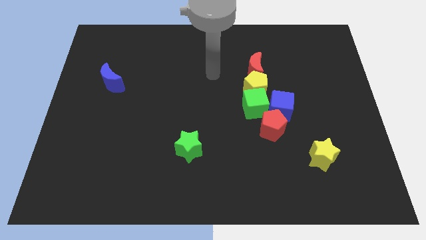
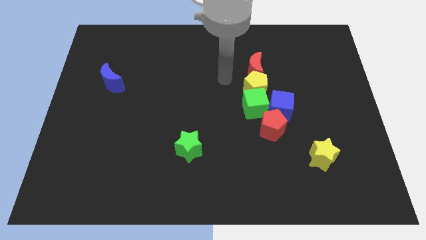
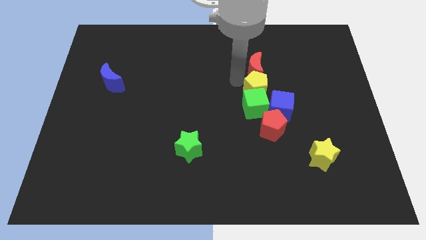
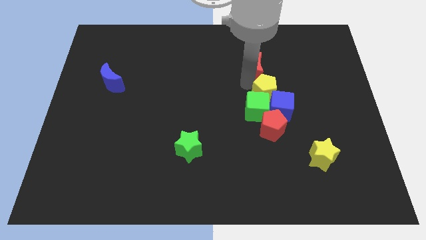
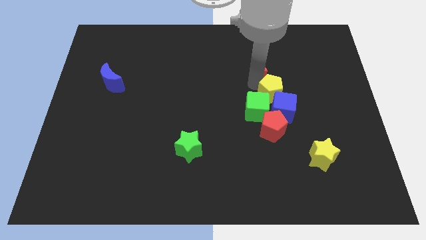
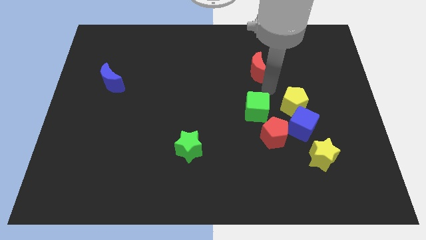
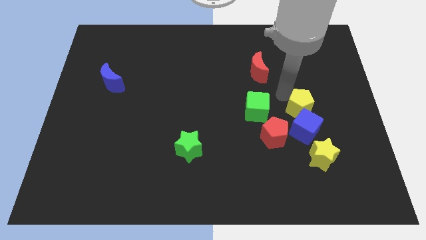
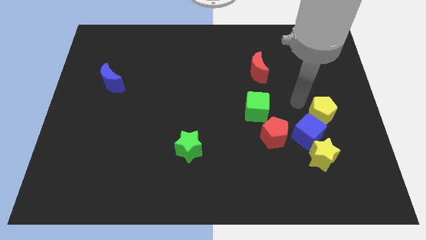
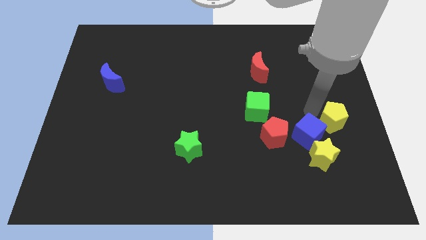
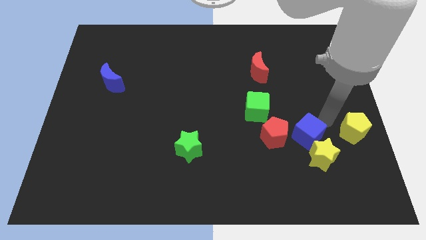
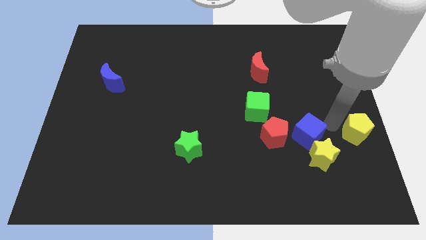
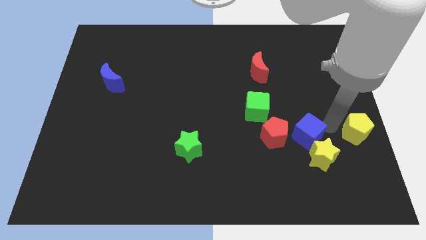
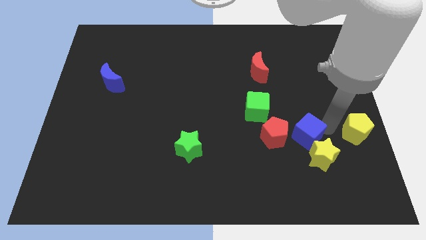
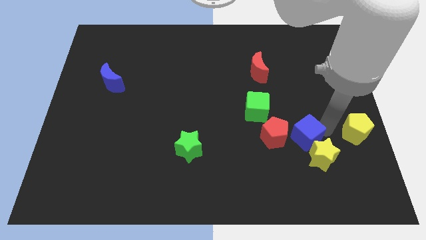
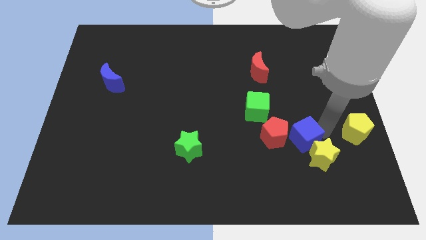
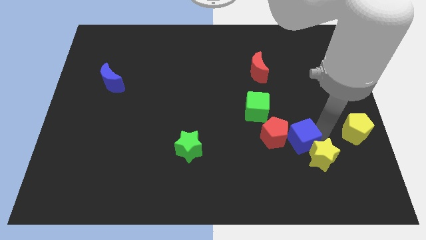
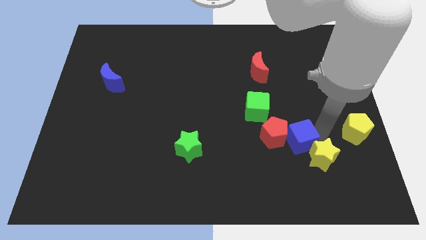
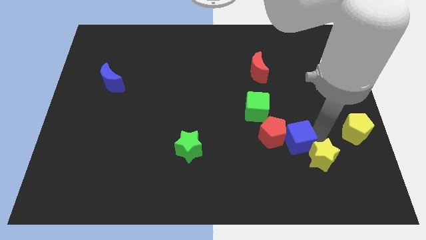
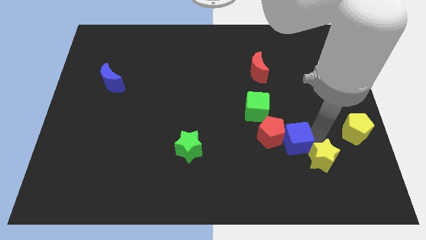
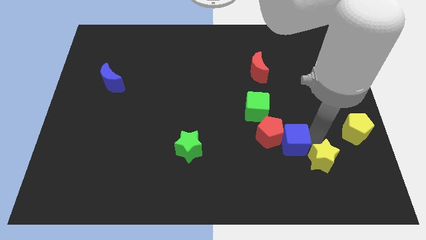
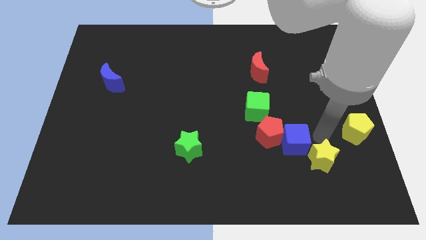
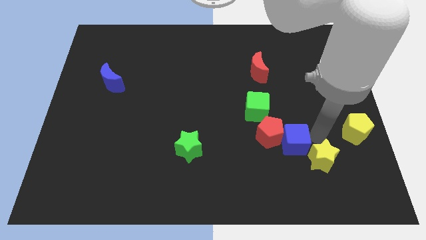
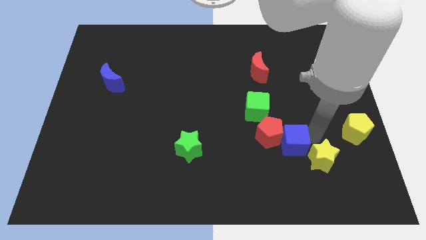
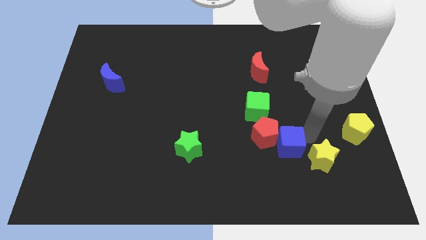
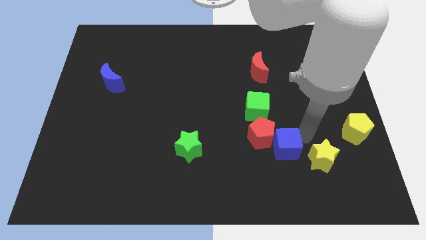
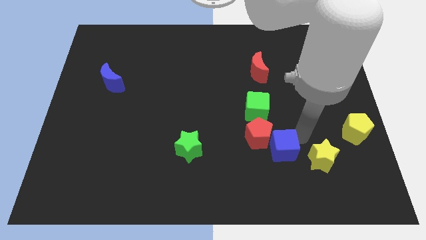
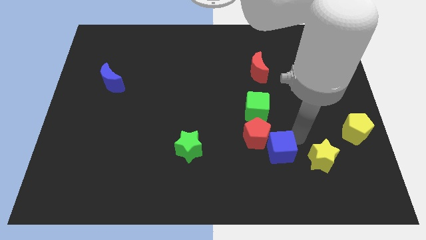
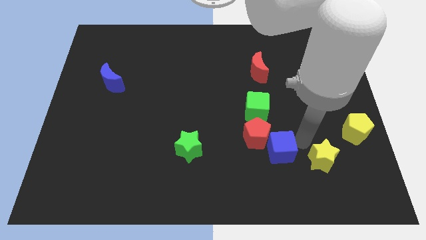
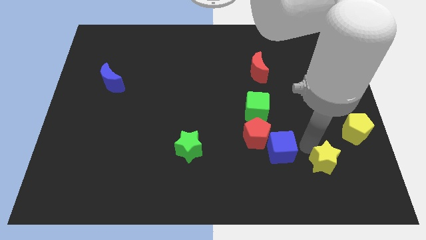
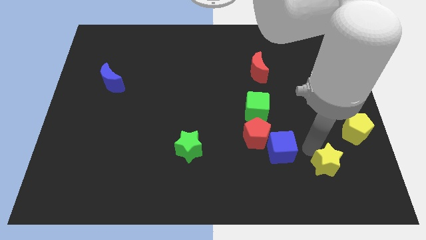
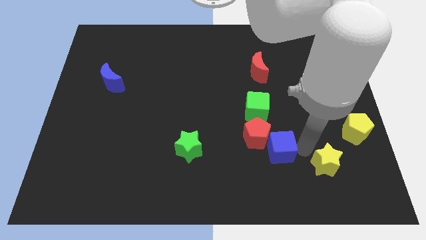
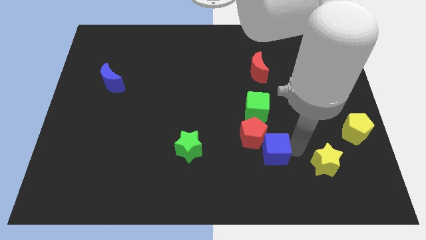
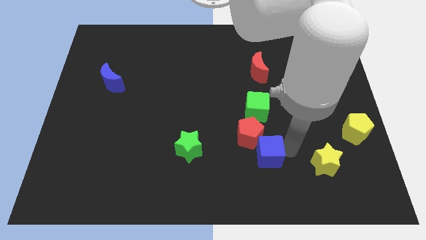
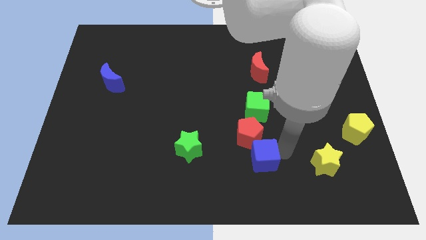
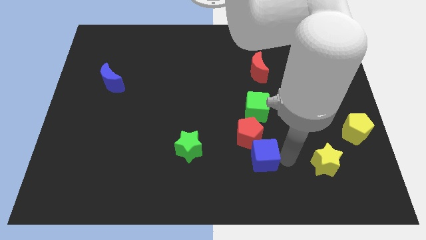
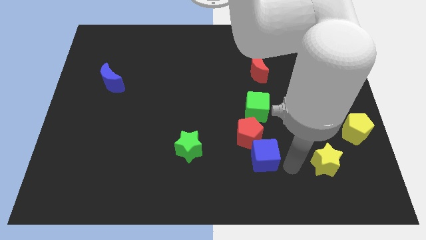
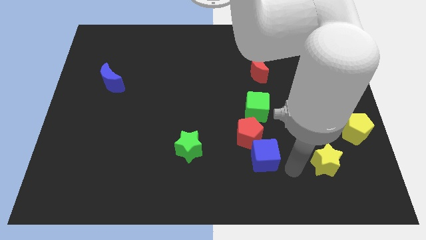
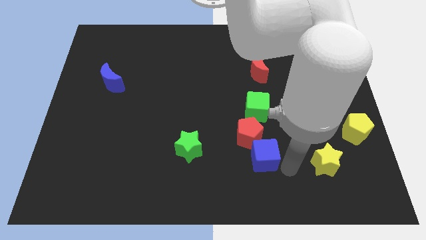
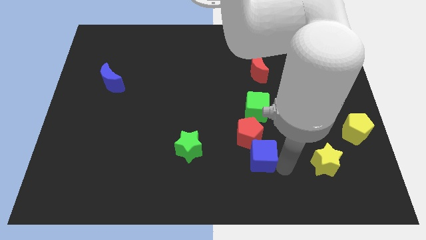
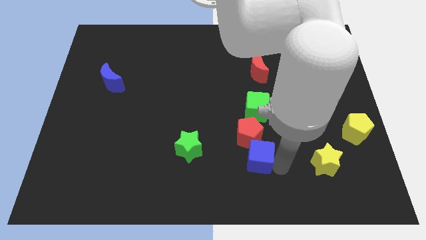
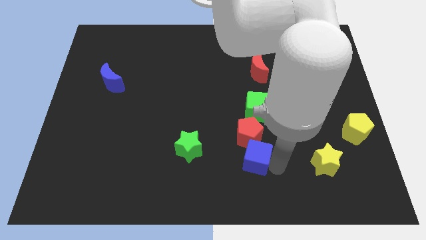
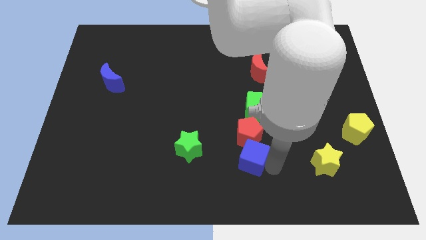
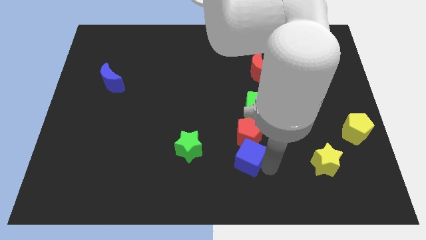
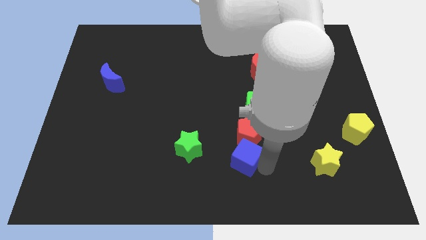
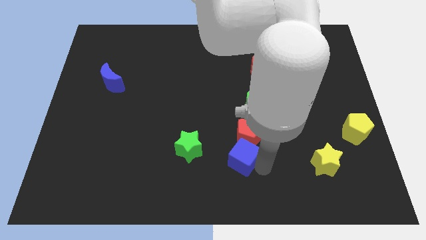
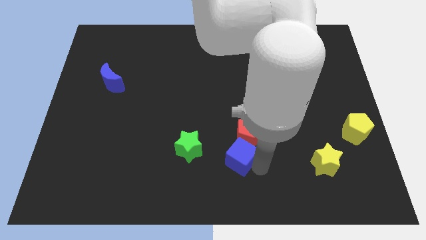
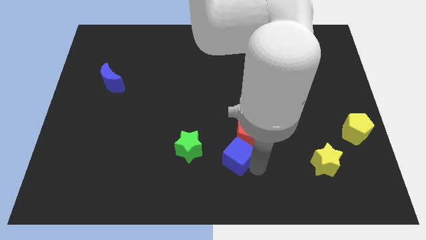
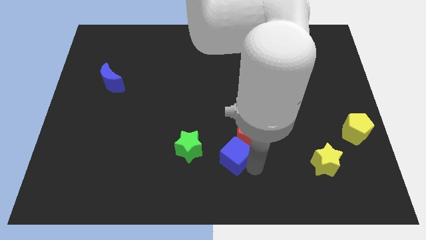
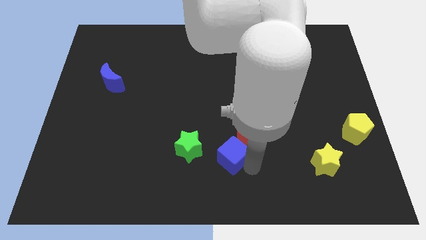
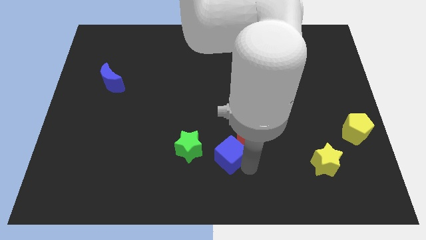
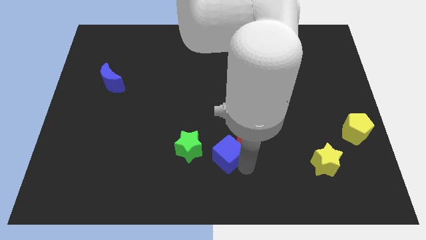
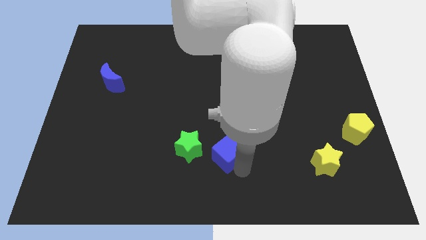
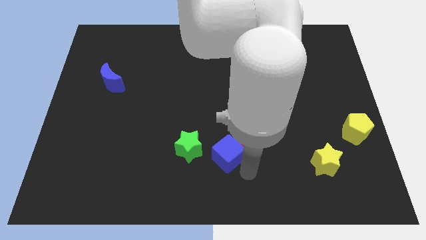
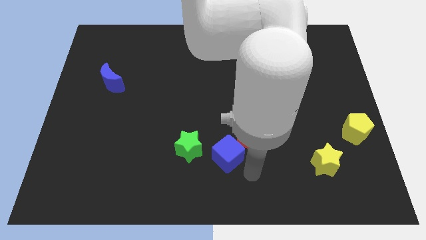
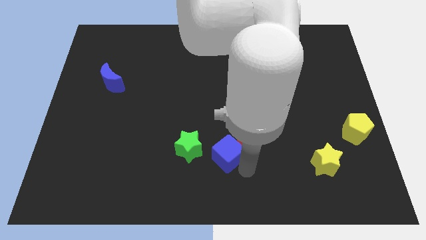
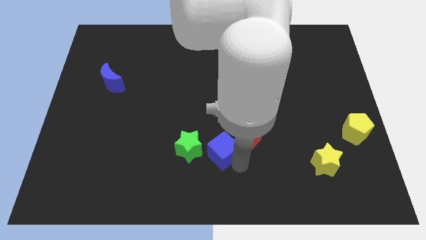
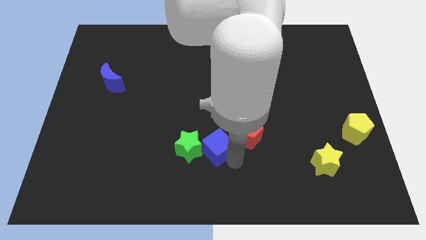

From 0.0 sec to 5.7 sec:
put the blue cube towards the green star

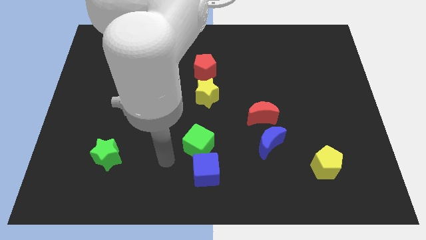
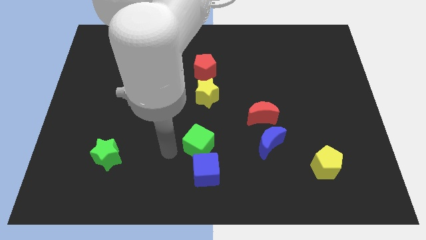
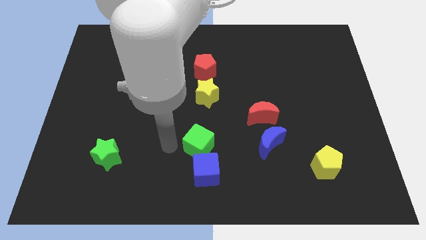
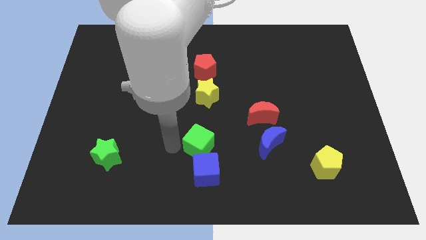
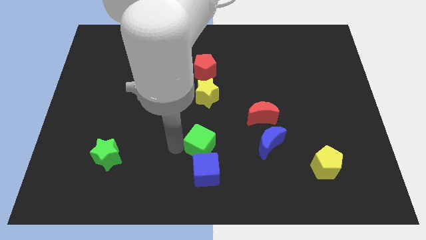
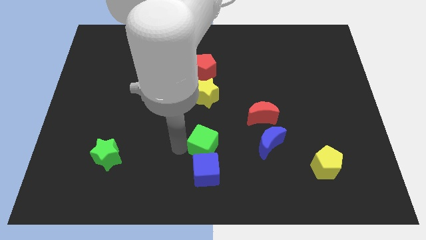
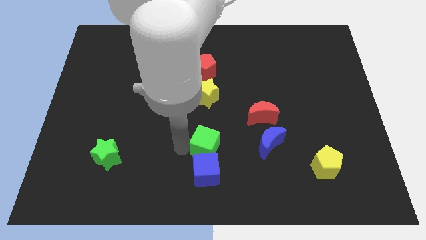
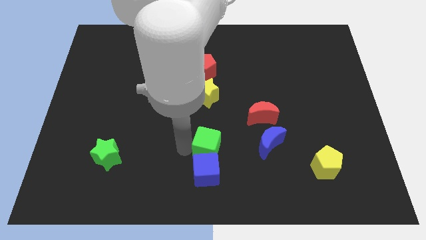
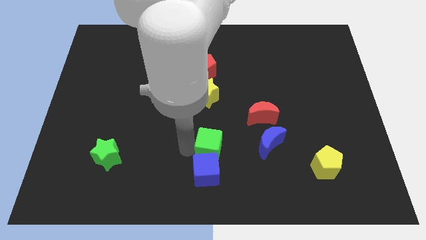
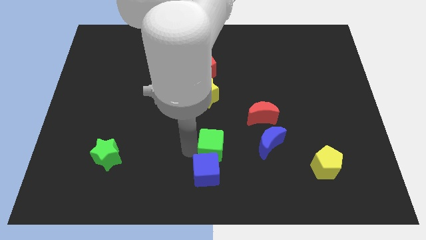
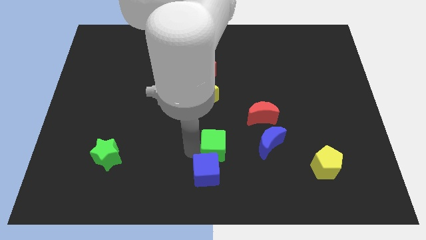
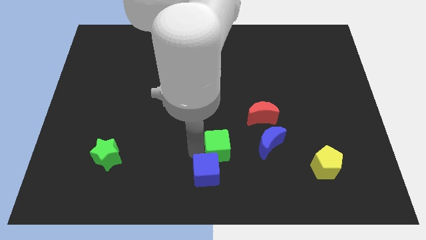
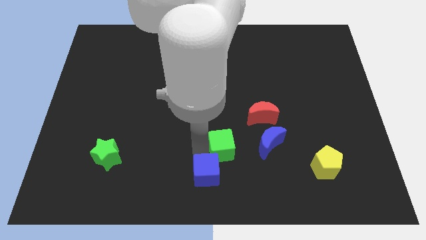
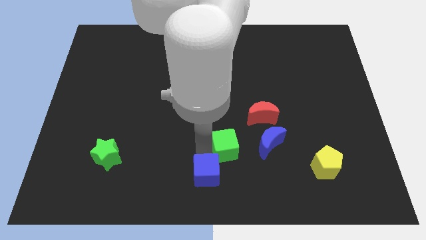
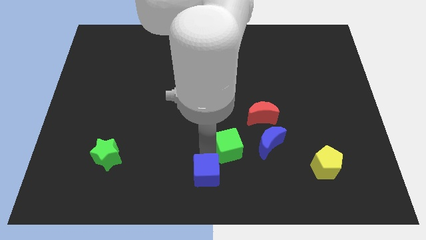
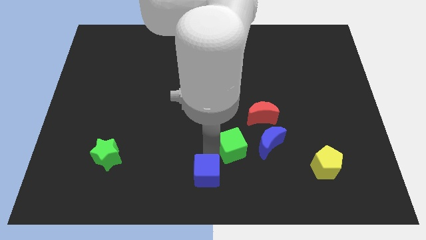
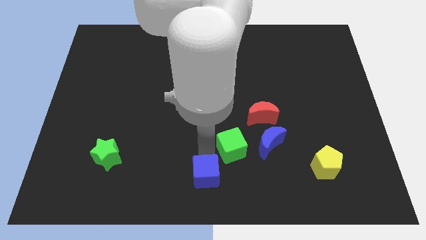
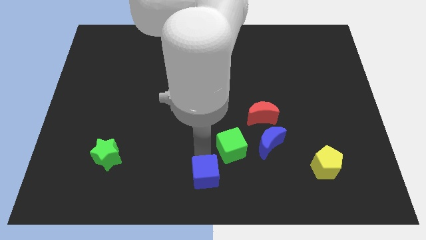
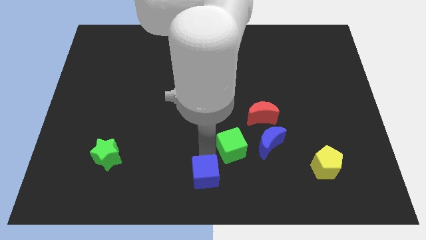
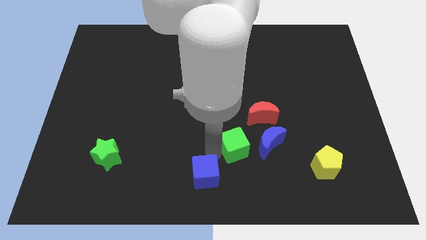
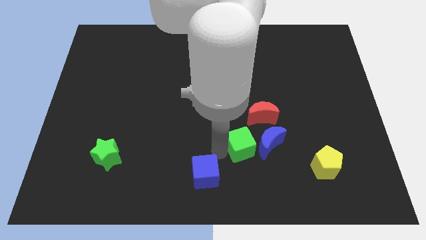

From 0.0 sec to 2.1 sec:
put the green cube next to the blue moon
